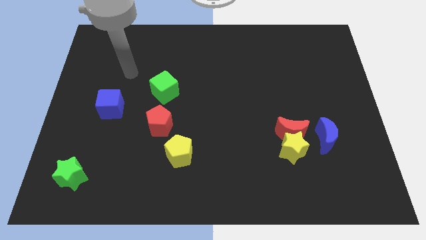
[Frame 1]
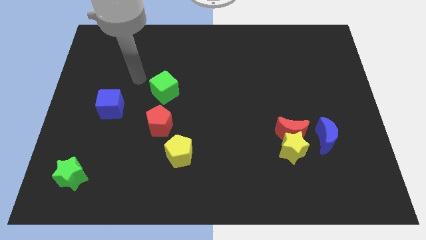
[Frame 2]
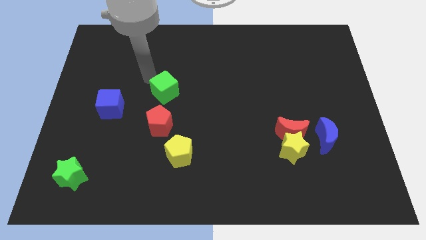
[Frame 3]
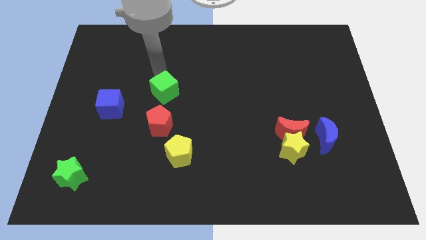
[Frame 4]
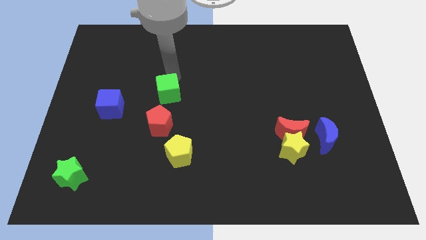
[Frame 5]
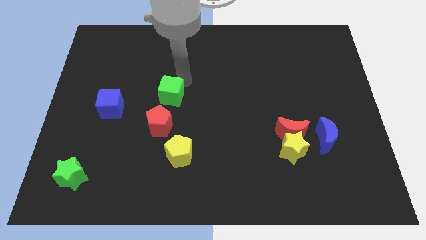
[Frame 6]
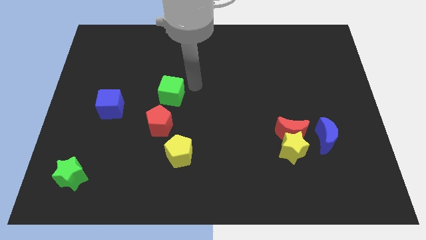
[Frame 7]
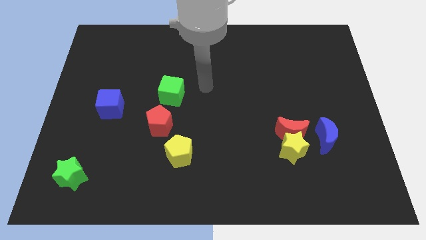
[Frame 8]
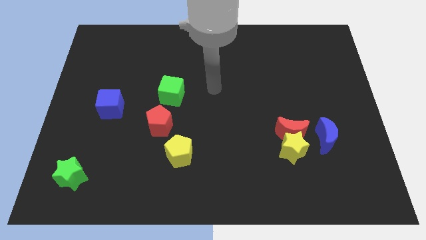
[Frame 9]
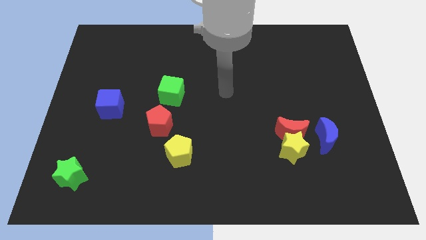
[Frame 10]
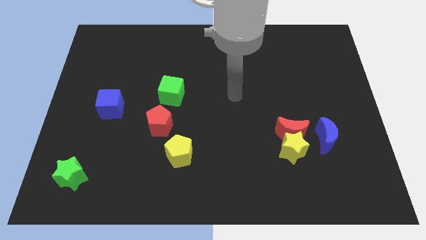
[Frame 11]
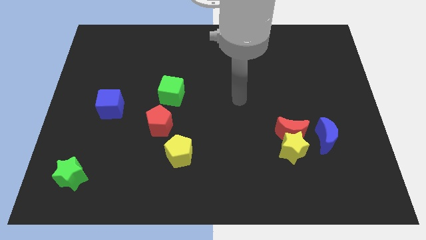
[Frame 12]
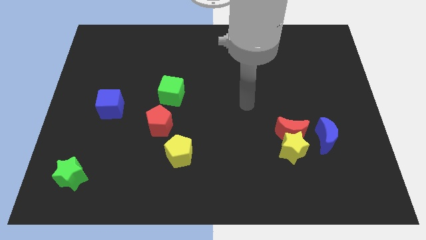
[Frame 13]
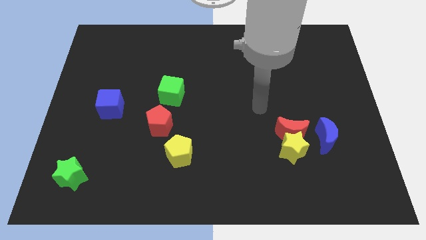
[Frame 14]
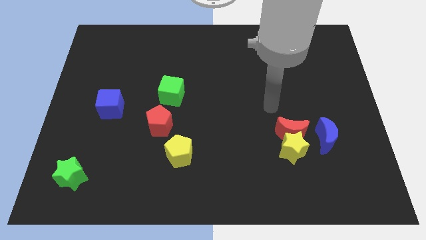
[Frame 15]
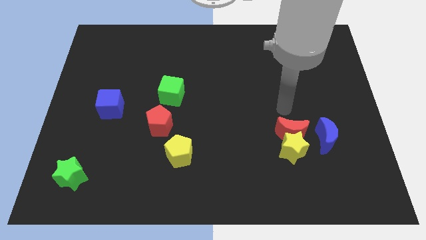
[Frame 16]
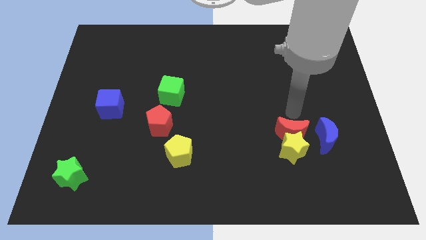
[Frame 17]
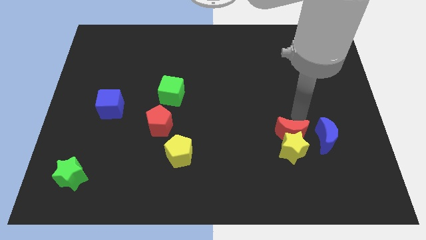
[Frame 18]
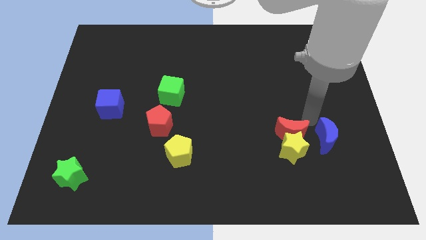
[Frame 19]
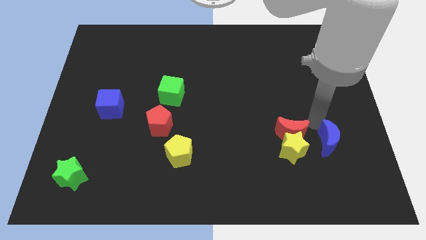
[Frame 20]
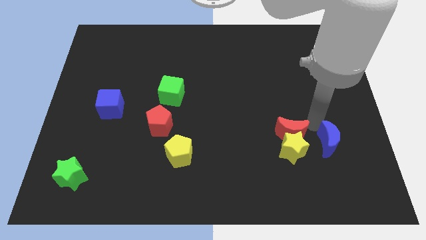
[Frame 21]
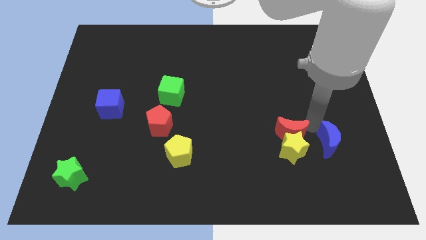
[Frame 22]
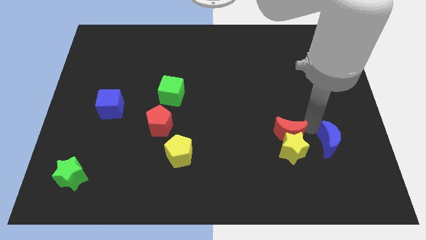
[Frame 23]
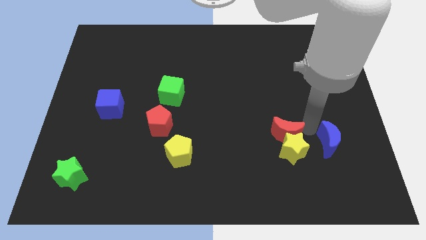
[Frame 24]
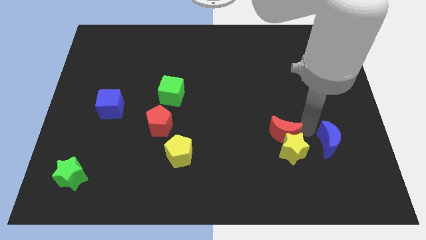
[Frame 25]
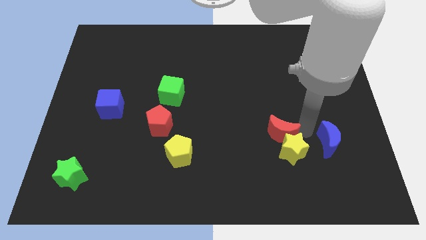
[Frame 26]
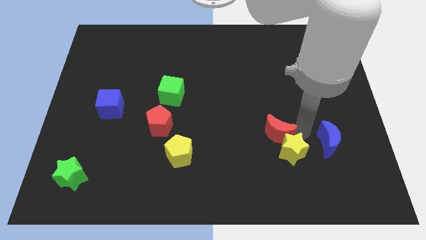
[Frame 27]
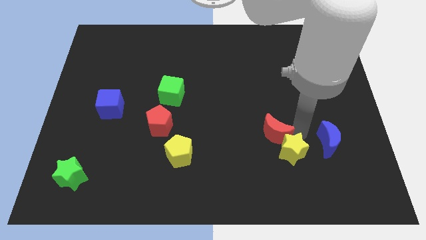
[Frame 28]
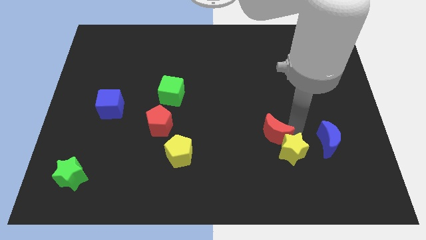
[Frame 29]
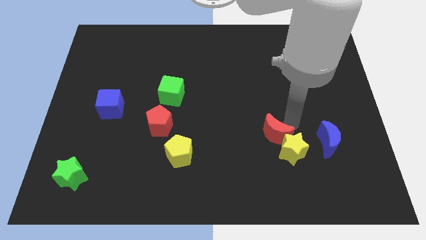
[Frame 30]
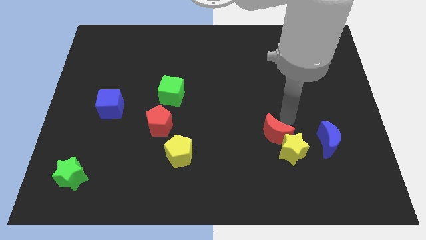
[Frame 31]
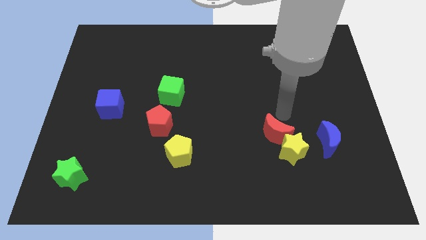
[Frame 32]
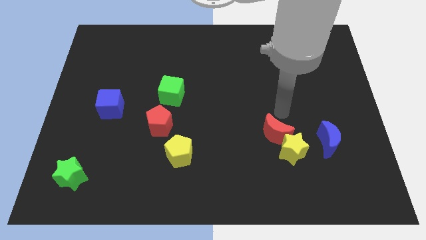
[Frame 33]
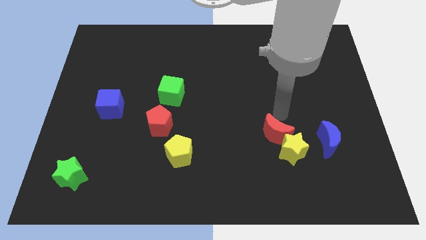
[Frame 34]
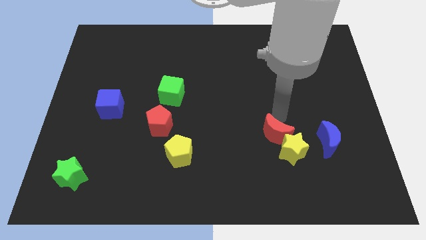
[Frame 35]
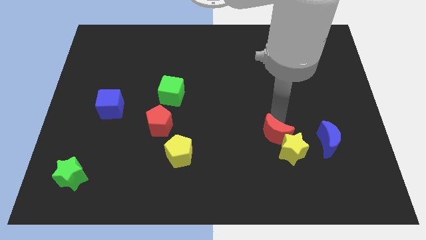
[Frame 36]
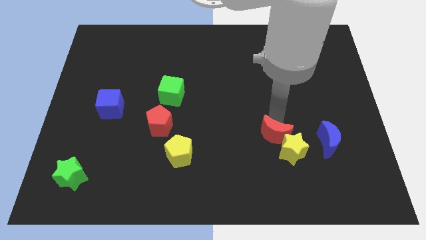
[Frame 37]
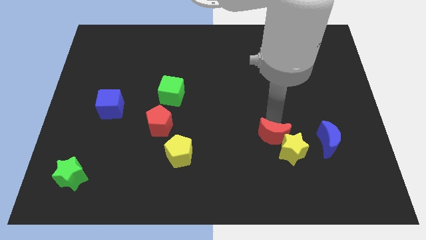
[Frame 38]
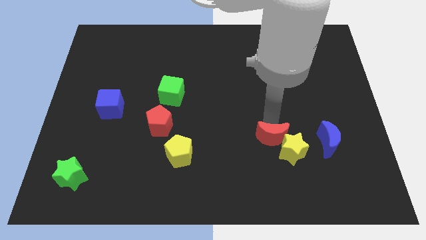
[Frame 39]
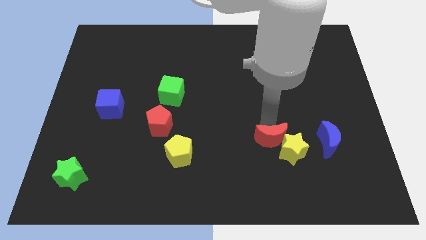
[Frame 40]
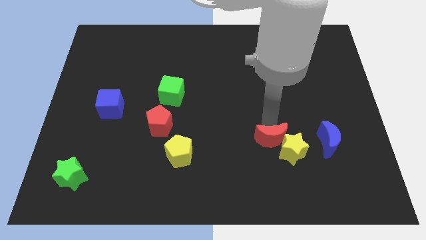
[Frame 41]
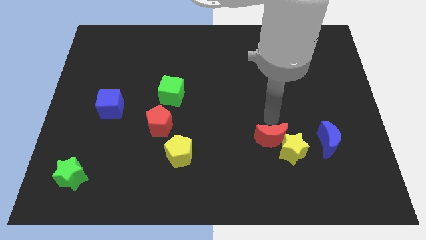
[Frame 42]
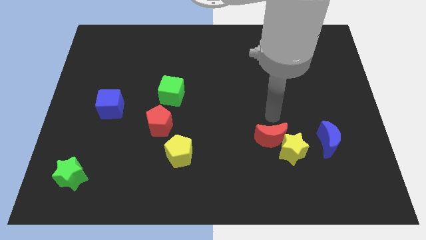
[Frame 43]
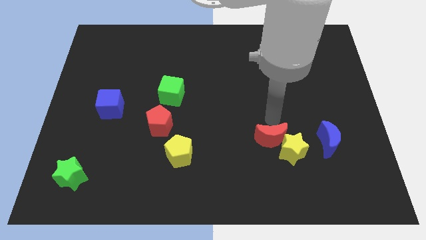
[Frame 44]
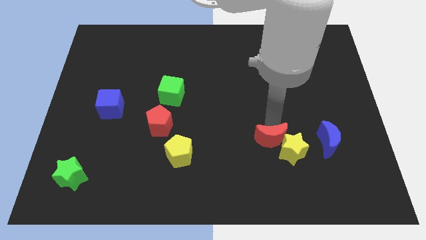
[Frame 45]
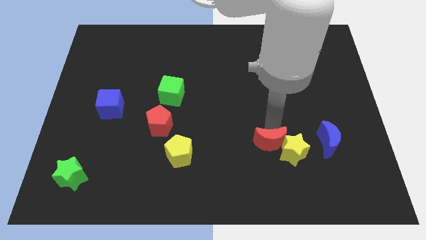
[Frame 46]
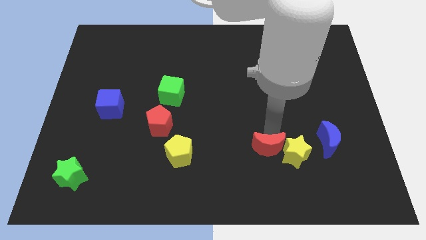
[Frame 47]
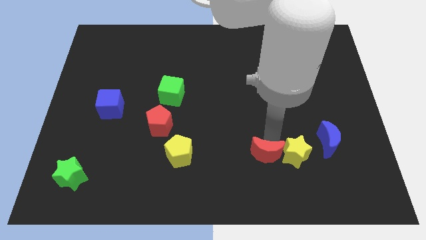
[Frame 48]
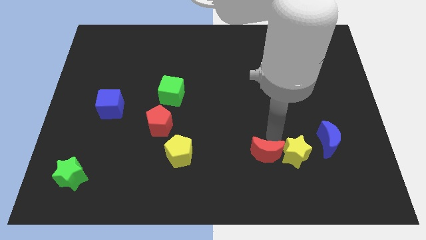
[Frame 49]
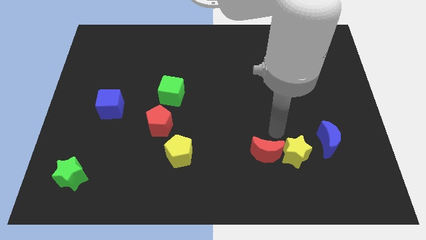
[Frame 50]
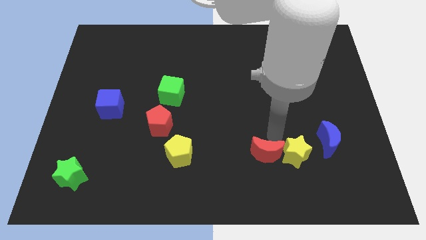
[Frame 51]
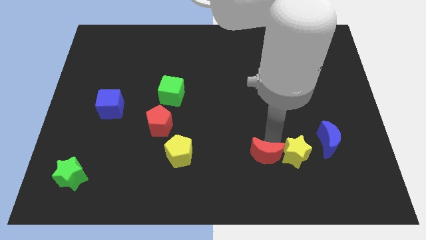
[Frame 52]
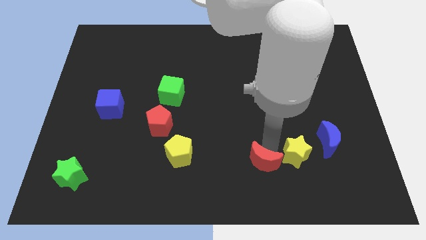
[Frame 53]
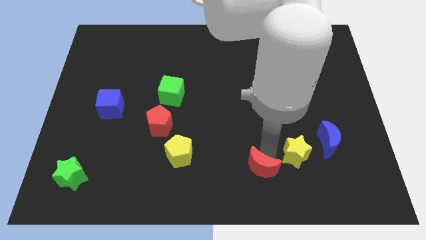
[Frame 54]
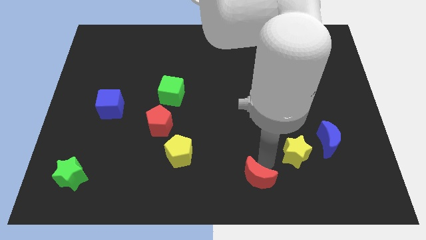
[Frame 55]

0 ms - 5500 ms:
slide the red moon to the bottom
